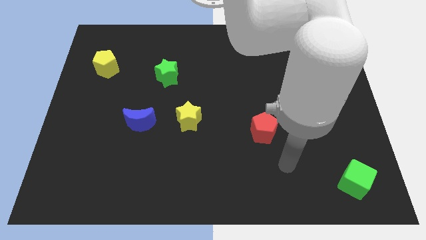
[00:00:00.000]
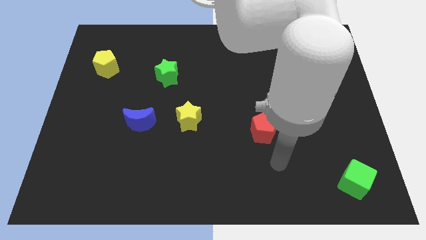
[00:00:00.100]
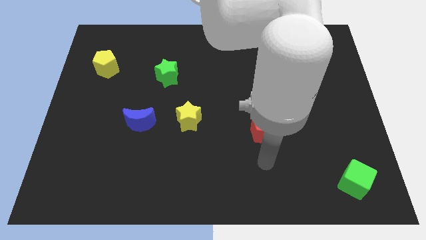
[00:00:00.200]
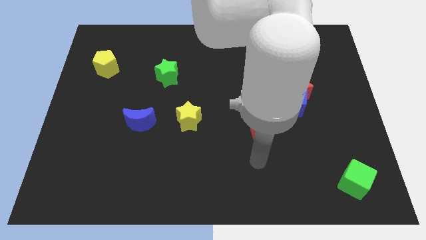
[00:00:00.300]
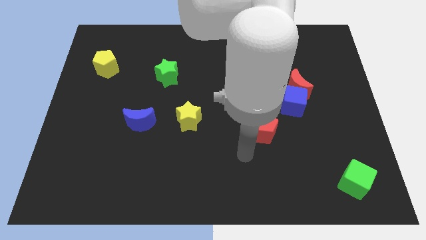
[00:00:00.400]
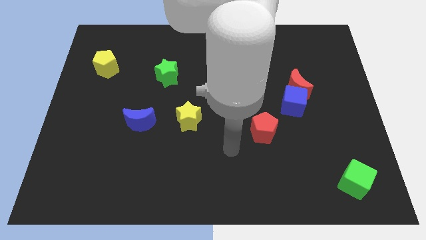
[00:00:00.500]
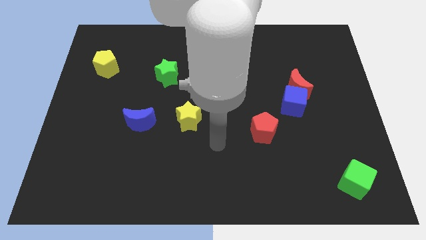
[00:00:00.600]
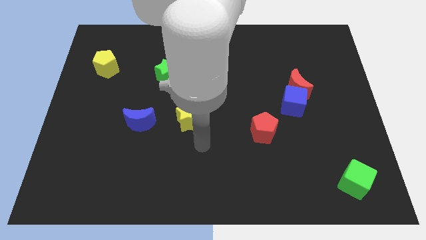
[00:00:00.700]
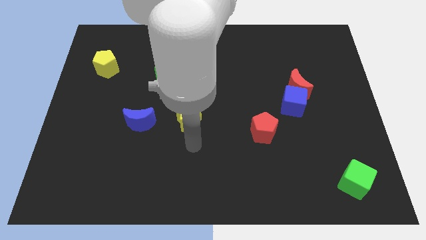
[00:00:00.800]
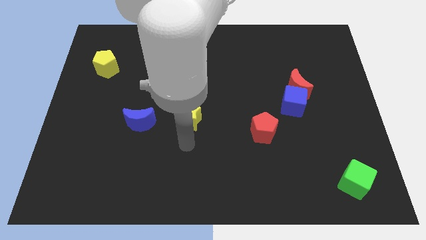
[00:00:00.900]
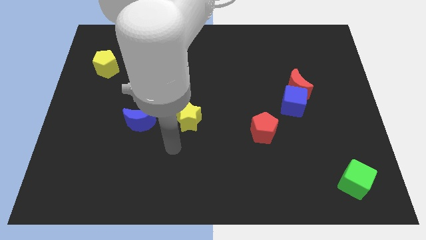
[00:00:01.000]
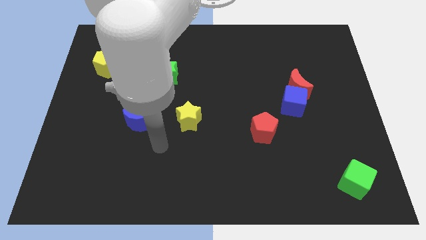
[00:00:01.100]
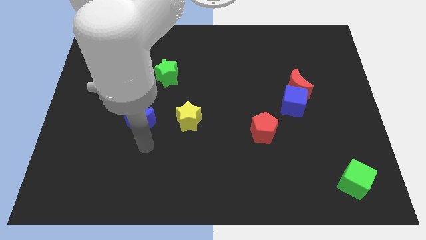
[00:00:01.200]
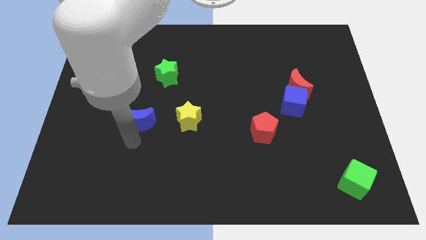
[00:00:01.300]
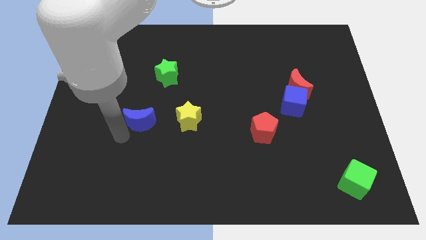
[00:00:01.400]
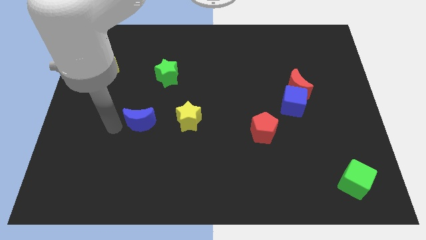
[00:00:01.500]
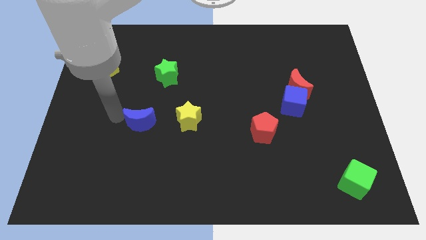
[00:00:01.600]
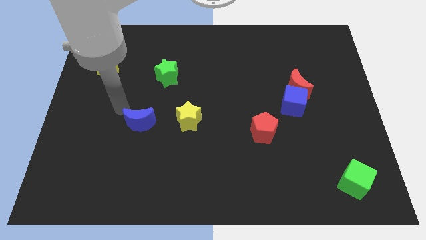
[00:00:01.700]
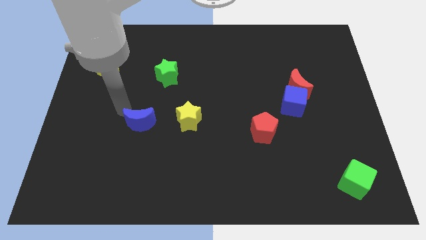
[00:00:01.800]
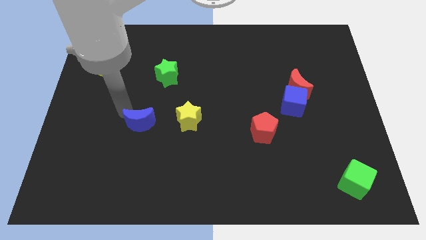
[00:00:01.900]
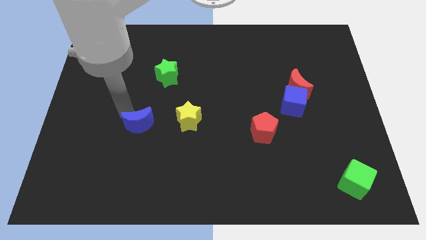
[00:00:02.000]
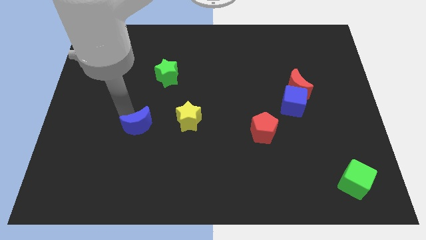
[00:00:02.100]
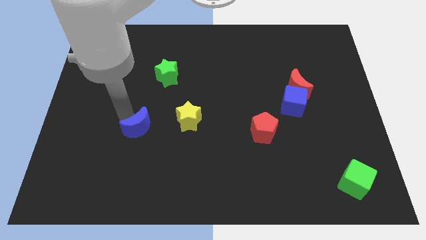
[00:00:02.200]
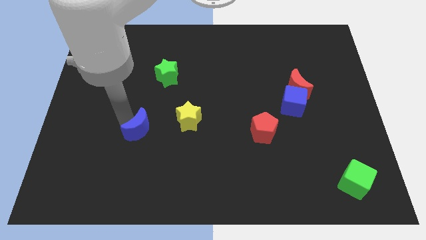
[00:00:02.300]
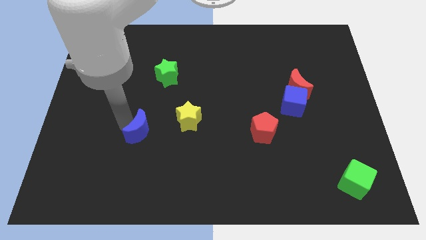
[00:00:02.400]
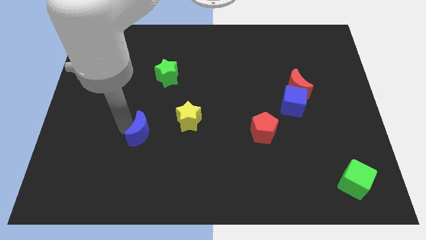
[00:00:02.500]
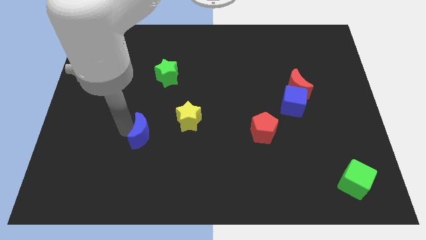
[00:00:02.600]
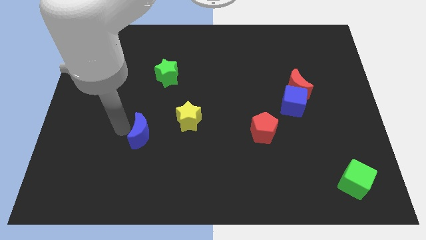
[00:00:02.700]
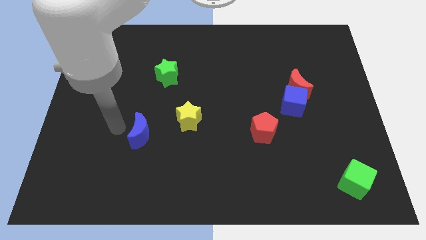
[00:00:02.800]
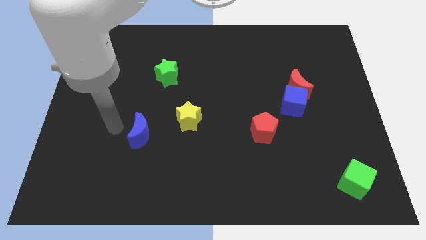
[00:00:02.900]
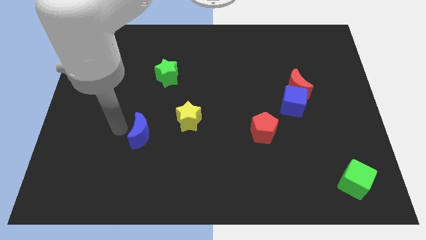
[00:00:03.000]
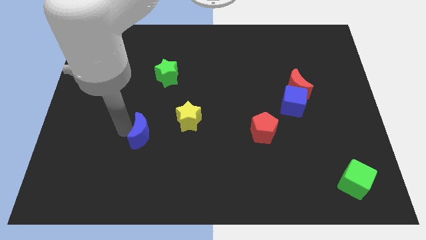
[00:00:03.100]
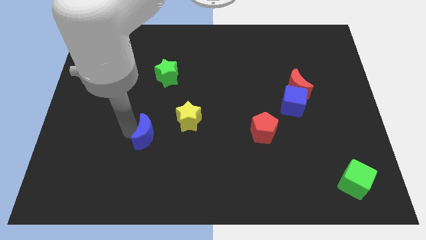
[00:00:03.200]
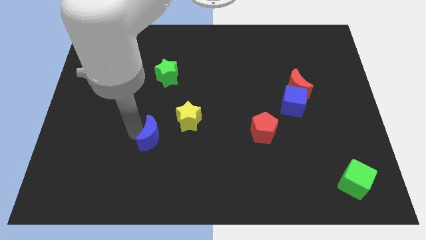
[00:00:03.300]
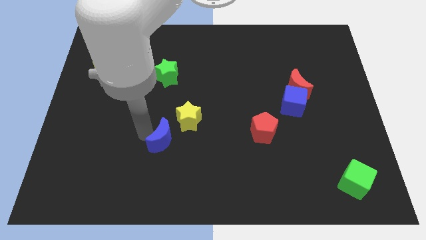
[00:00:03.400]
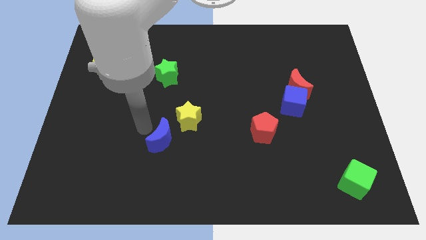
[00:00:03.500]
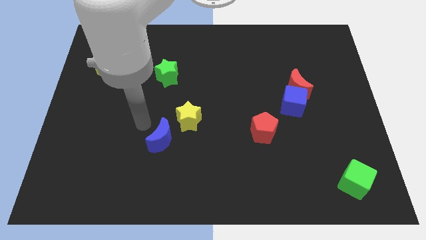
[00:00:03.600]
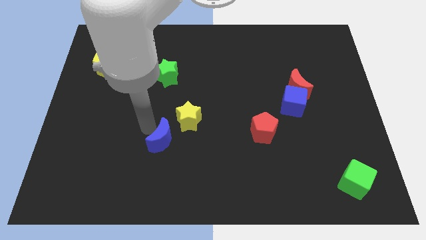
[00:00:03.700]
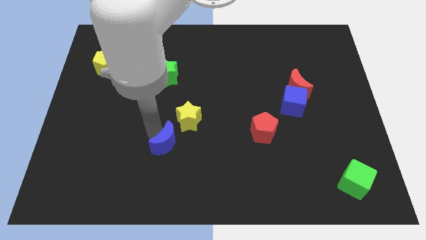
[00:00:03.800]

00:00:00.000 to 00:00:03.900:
move the blue moon to the bottom of the yellow star

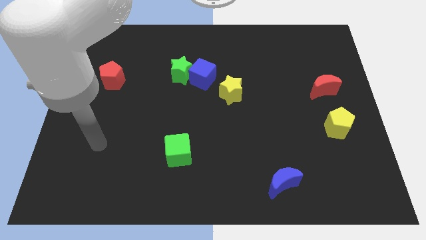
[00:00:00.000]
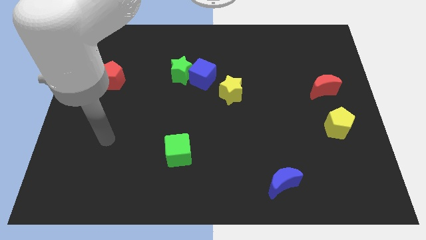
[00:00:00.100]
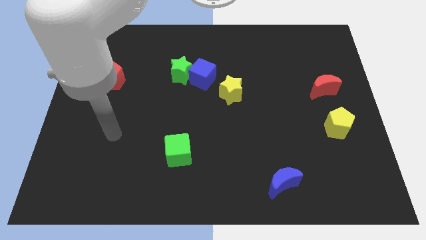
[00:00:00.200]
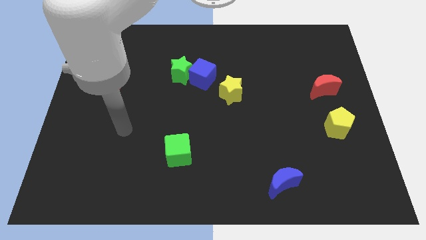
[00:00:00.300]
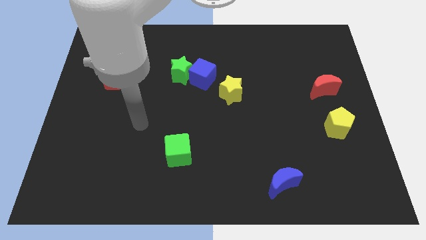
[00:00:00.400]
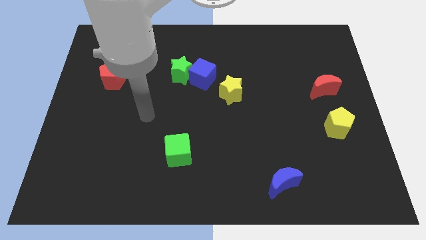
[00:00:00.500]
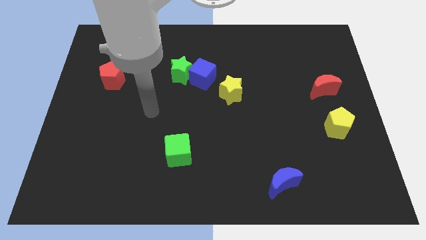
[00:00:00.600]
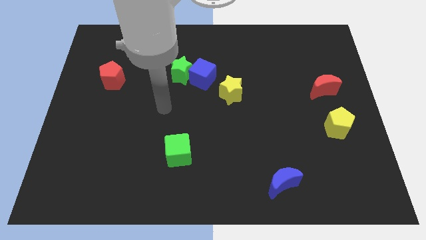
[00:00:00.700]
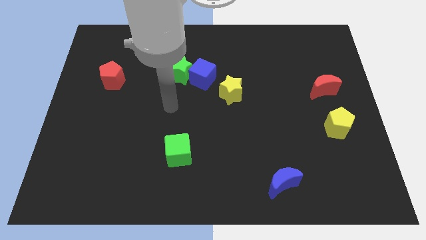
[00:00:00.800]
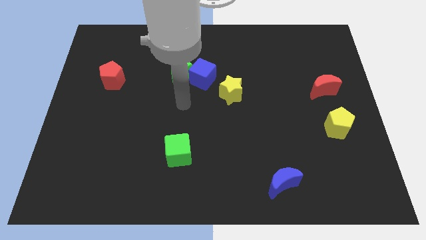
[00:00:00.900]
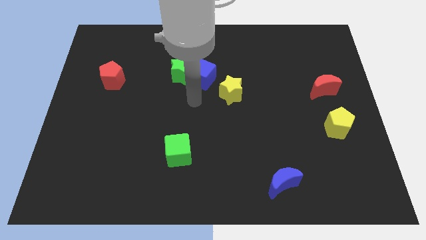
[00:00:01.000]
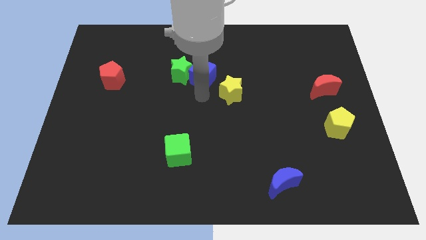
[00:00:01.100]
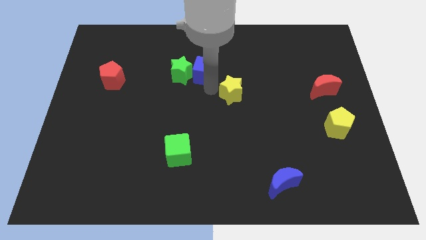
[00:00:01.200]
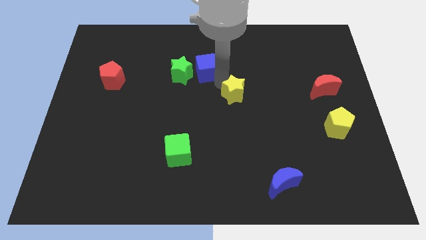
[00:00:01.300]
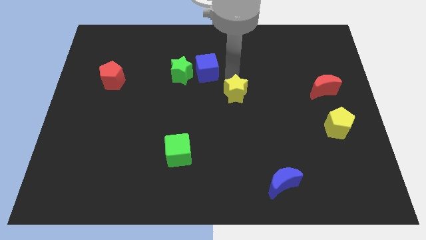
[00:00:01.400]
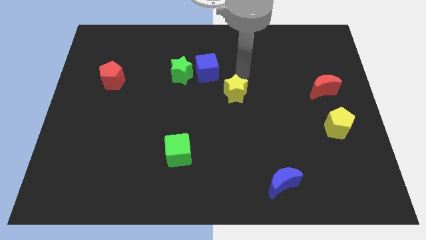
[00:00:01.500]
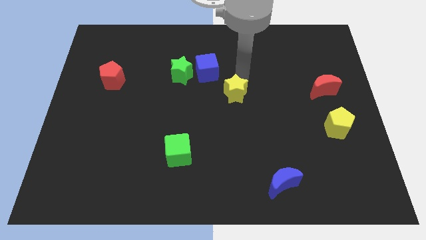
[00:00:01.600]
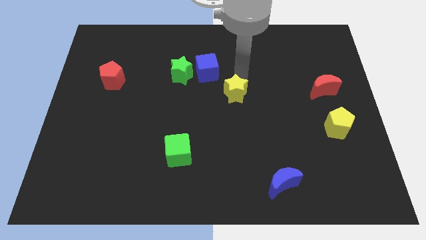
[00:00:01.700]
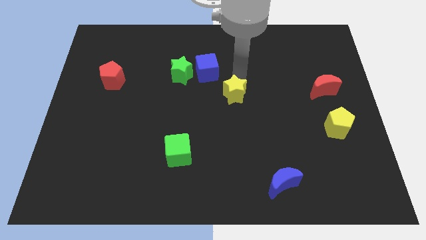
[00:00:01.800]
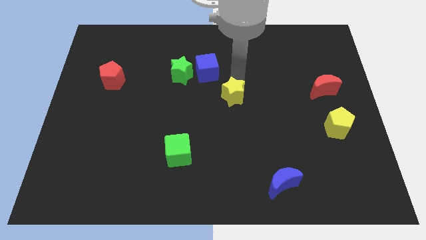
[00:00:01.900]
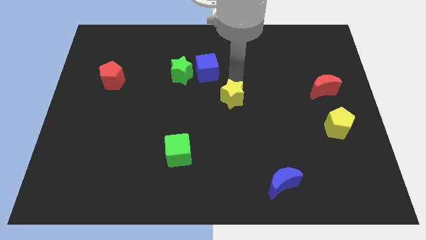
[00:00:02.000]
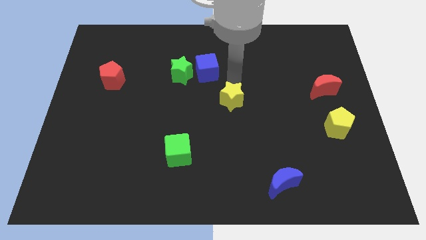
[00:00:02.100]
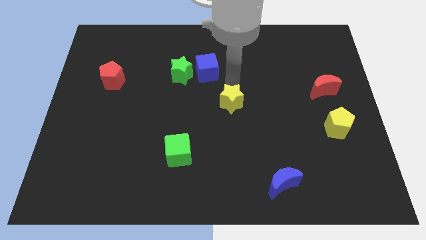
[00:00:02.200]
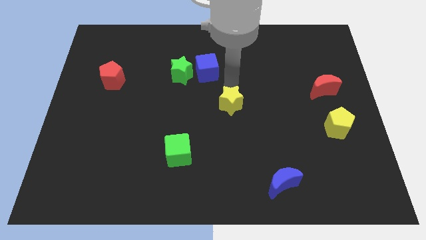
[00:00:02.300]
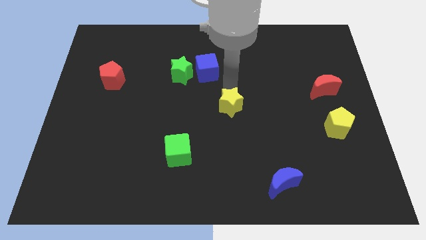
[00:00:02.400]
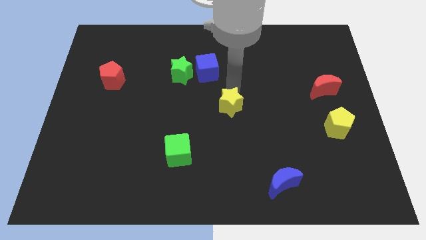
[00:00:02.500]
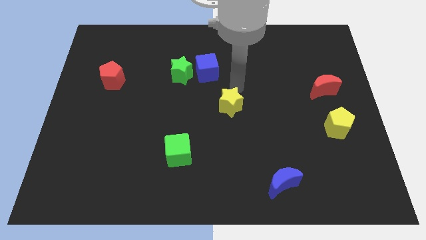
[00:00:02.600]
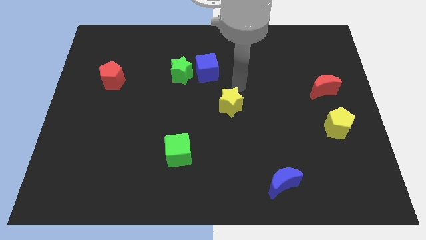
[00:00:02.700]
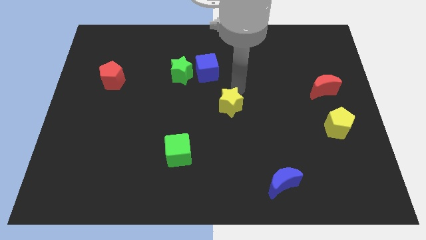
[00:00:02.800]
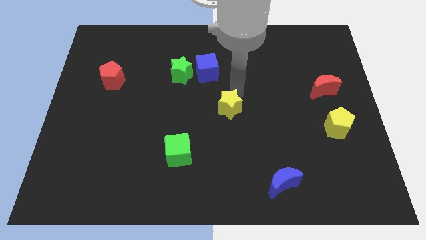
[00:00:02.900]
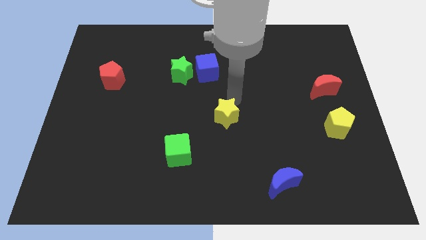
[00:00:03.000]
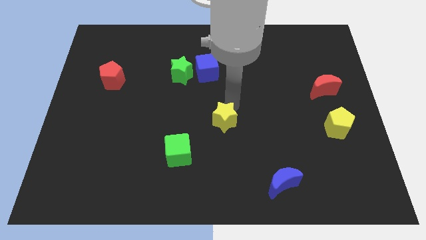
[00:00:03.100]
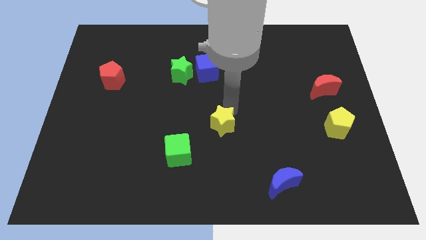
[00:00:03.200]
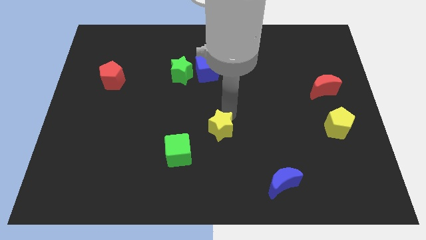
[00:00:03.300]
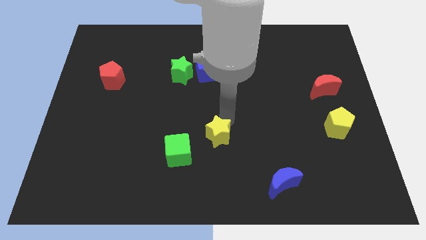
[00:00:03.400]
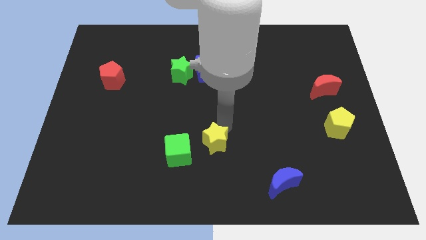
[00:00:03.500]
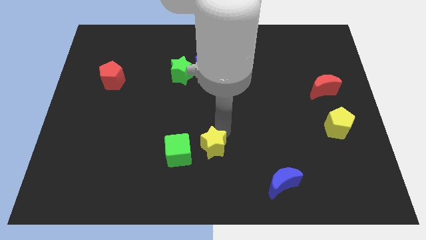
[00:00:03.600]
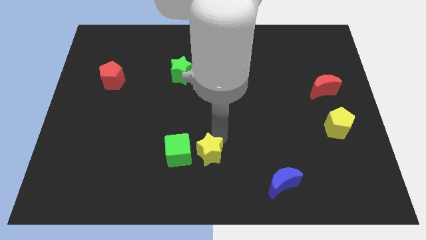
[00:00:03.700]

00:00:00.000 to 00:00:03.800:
move the yellow star diagonally down and to the right of the green cube

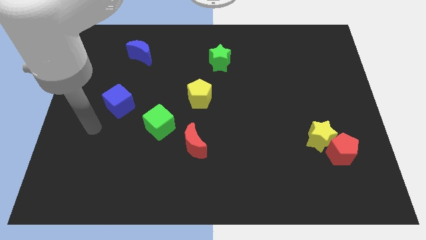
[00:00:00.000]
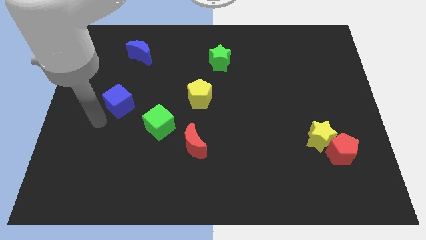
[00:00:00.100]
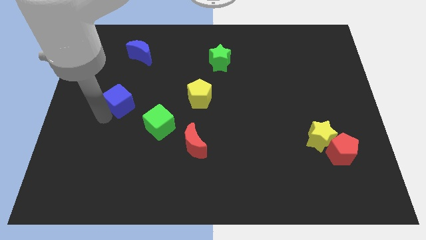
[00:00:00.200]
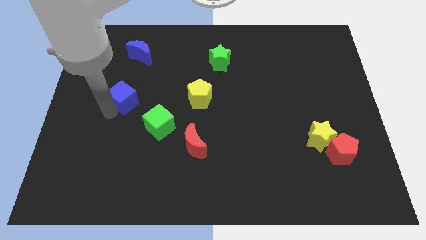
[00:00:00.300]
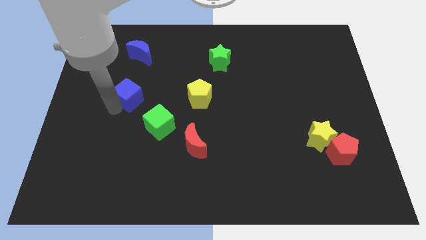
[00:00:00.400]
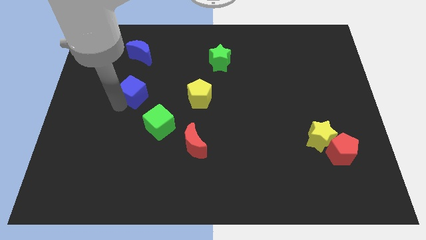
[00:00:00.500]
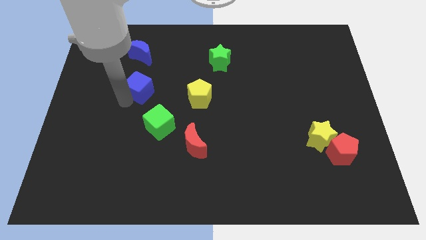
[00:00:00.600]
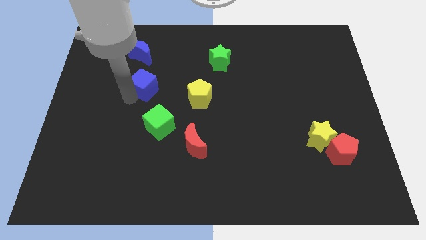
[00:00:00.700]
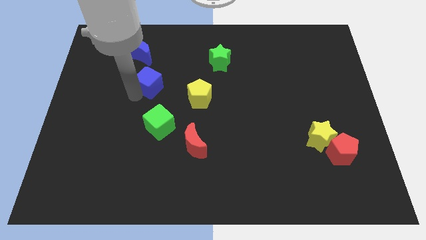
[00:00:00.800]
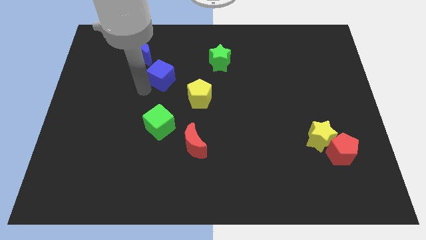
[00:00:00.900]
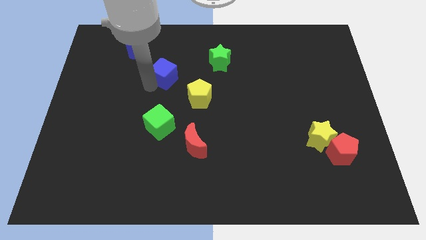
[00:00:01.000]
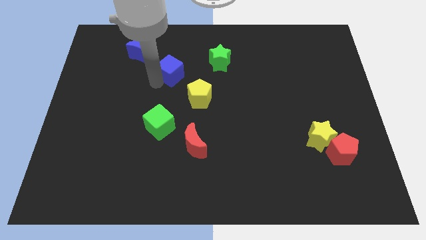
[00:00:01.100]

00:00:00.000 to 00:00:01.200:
slide the blue cube to the left of the green star
